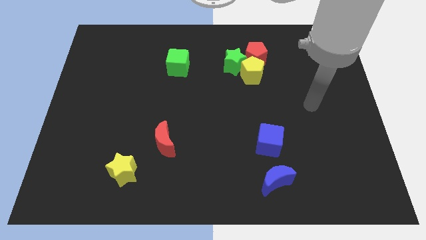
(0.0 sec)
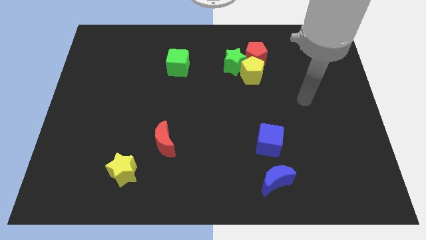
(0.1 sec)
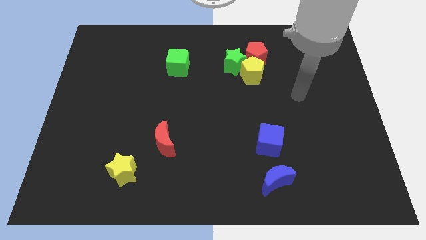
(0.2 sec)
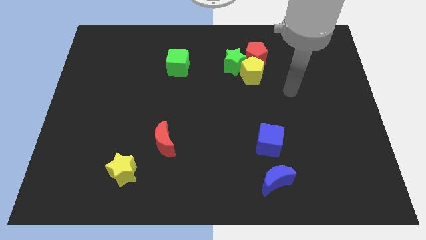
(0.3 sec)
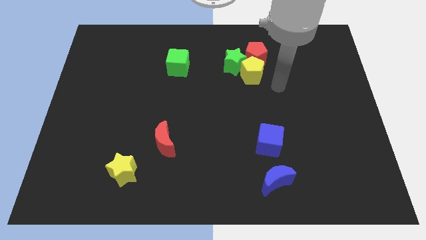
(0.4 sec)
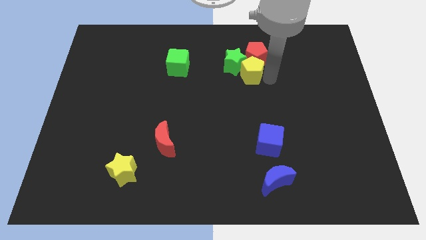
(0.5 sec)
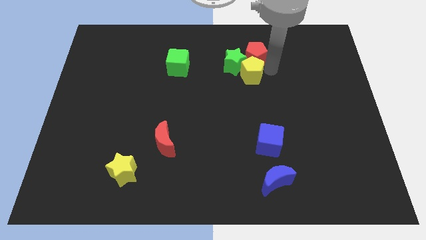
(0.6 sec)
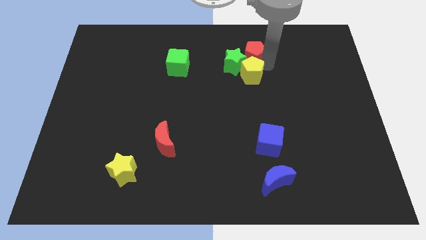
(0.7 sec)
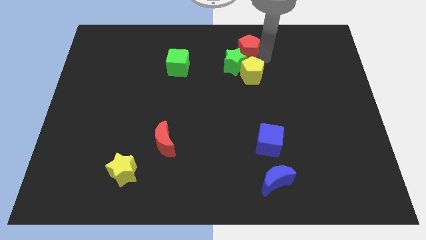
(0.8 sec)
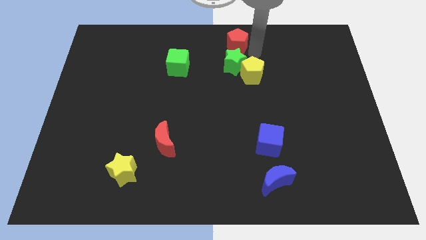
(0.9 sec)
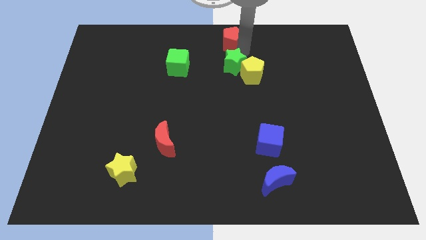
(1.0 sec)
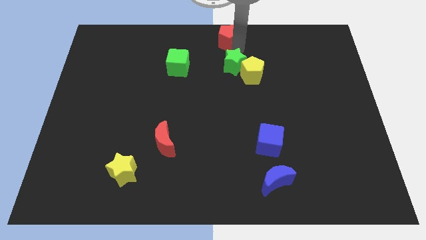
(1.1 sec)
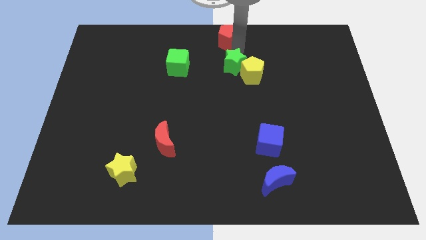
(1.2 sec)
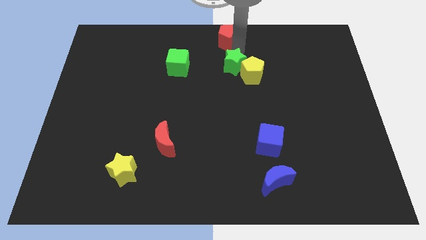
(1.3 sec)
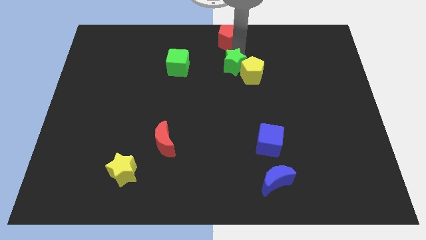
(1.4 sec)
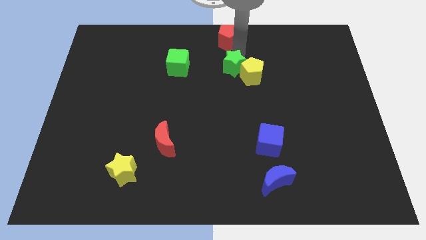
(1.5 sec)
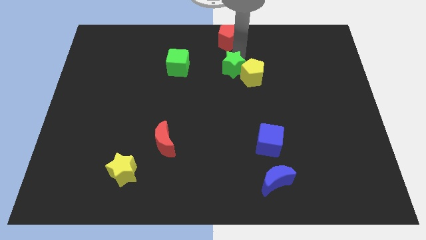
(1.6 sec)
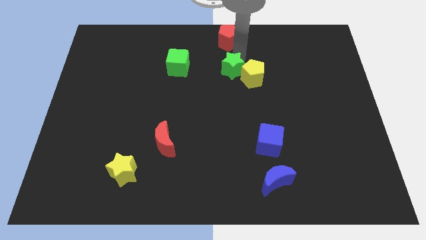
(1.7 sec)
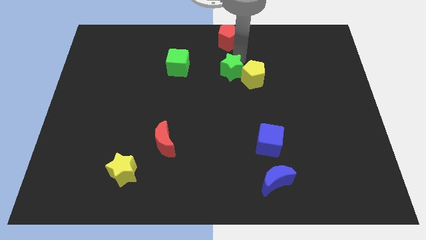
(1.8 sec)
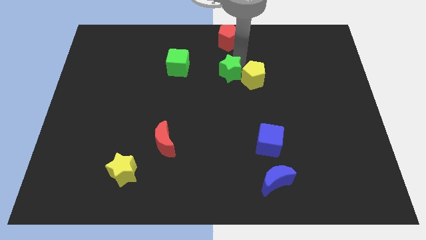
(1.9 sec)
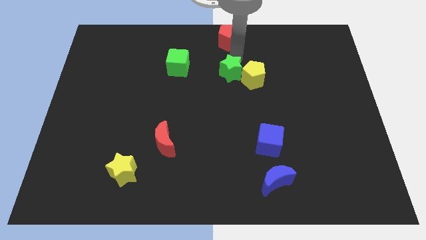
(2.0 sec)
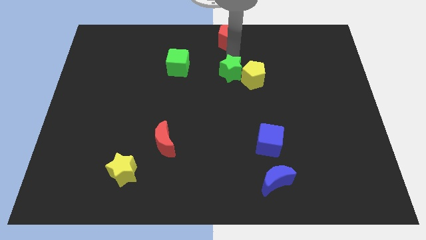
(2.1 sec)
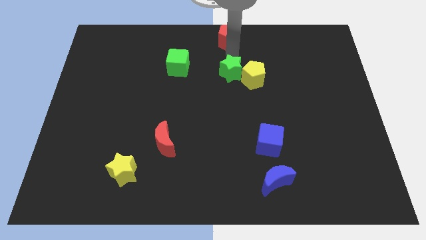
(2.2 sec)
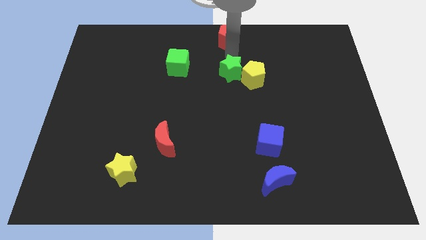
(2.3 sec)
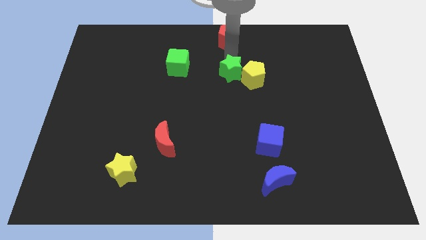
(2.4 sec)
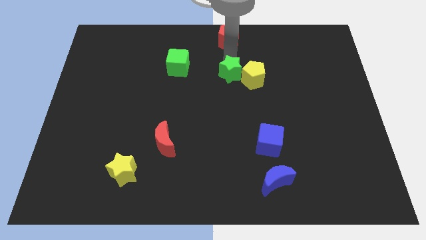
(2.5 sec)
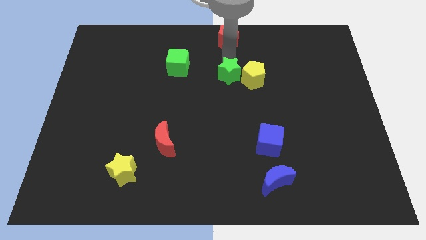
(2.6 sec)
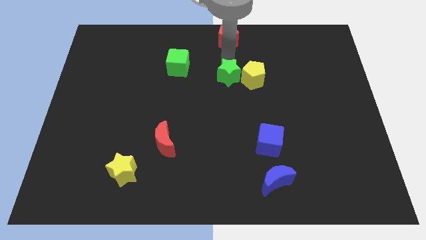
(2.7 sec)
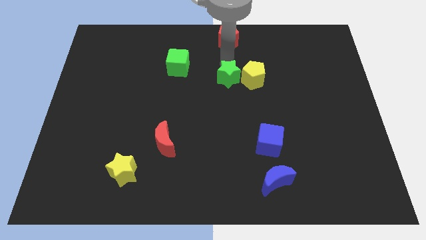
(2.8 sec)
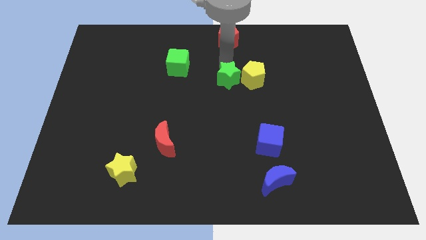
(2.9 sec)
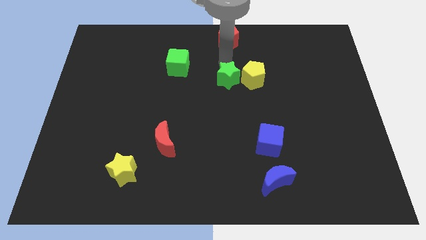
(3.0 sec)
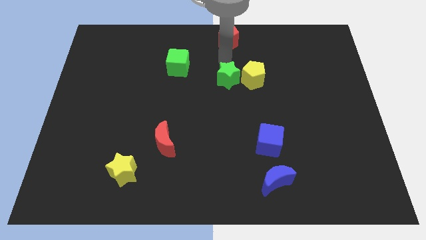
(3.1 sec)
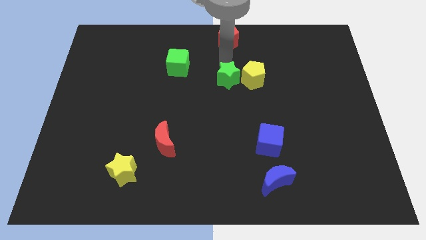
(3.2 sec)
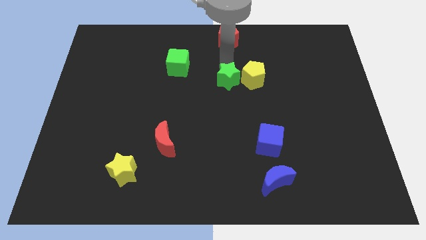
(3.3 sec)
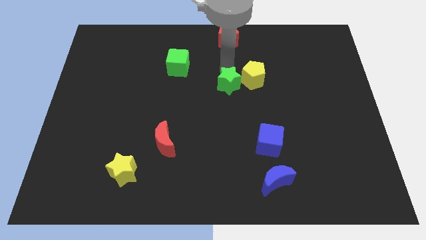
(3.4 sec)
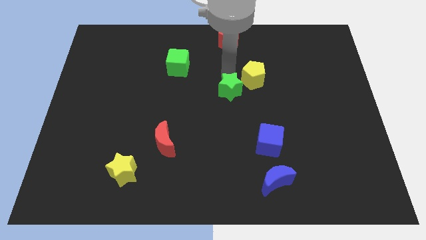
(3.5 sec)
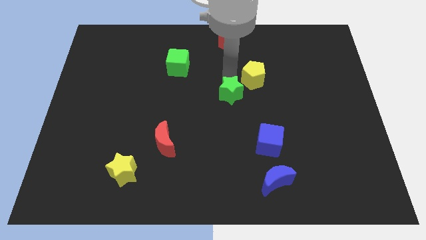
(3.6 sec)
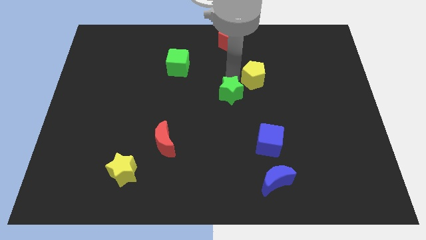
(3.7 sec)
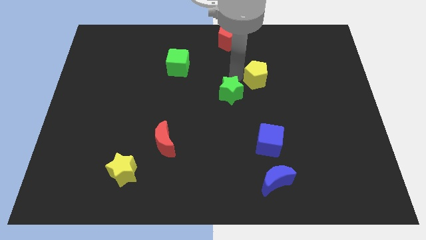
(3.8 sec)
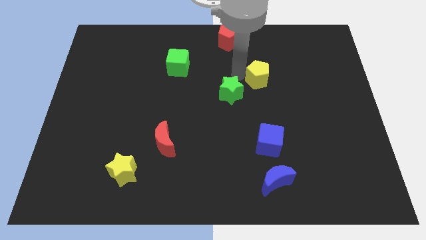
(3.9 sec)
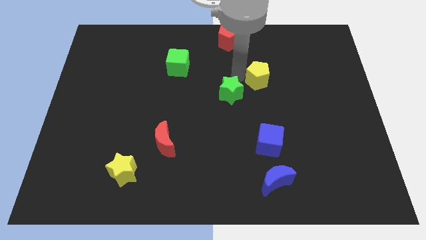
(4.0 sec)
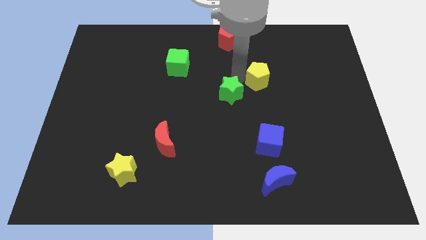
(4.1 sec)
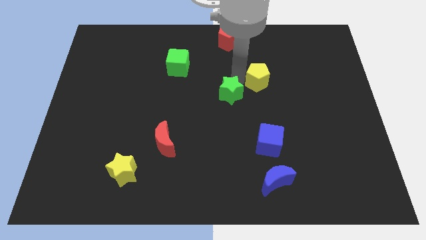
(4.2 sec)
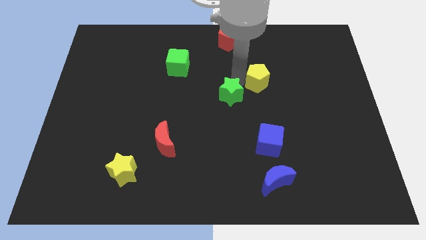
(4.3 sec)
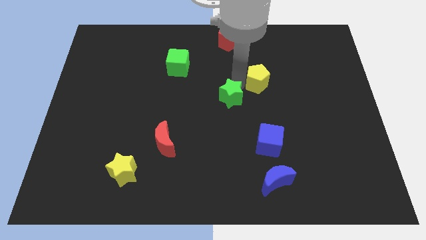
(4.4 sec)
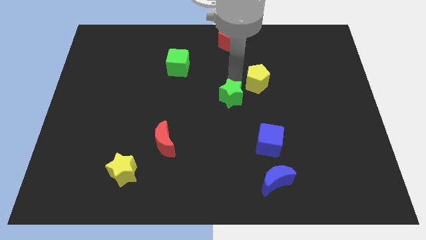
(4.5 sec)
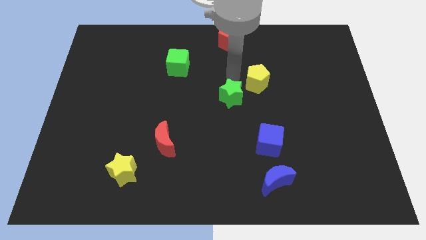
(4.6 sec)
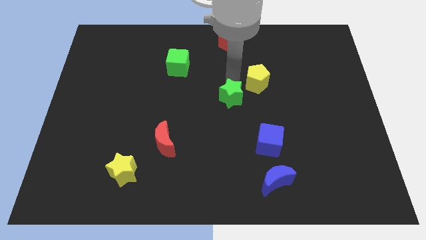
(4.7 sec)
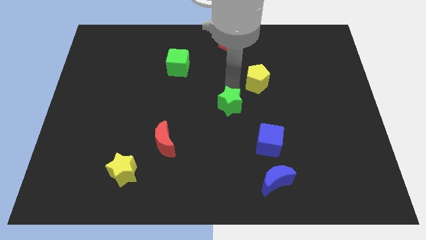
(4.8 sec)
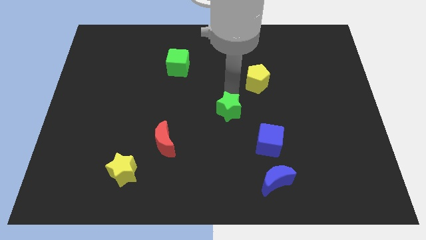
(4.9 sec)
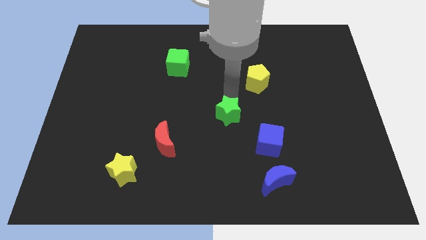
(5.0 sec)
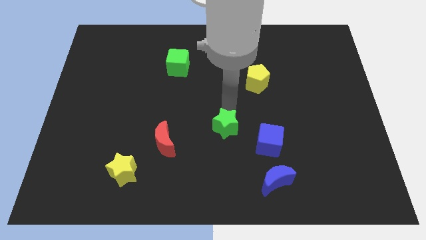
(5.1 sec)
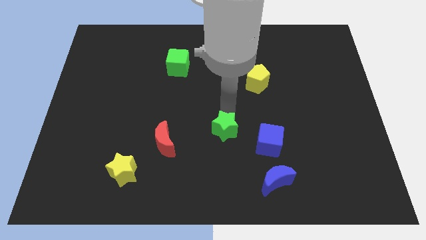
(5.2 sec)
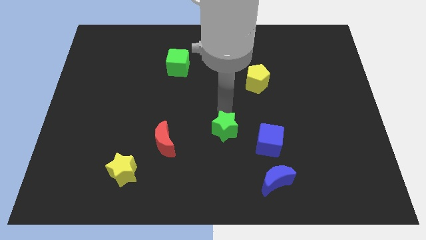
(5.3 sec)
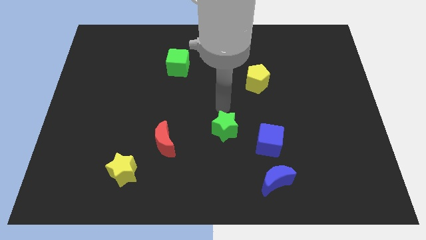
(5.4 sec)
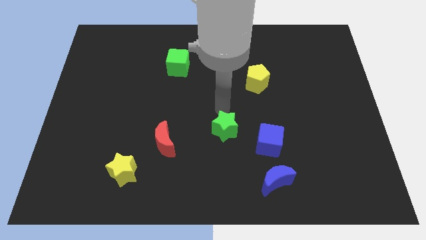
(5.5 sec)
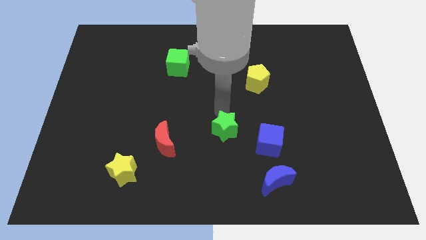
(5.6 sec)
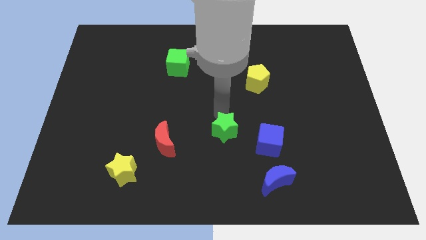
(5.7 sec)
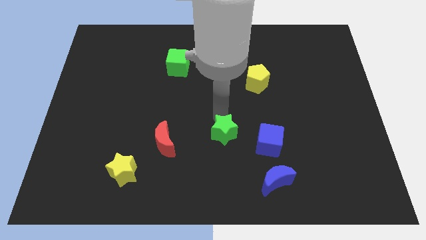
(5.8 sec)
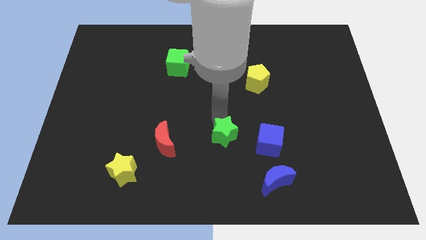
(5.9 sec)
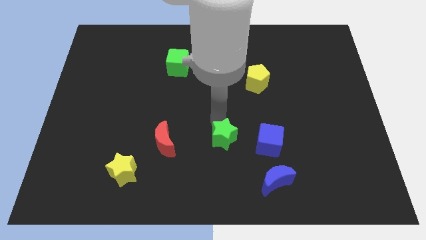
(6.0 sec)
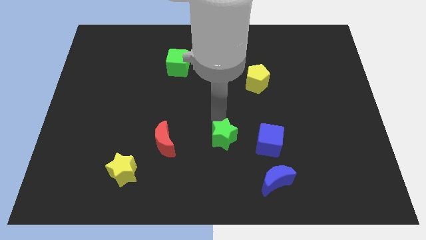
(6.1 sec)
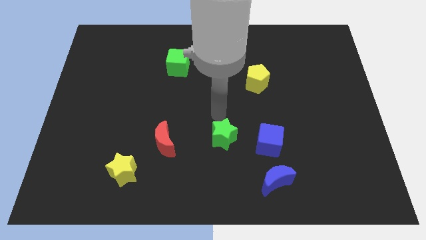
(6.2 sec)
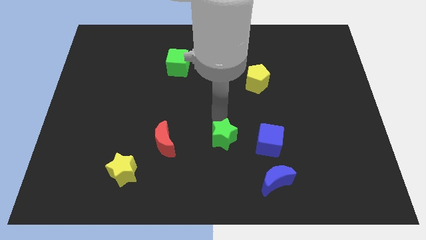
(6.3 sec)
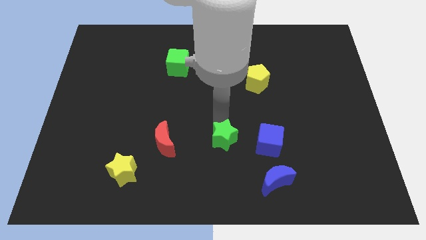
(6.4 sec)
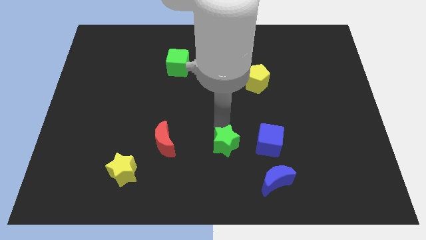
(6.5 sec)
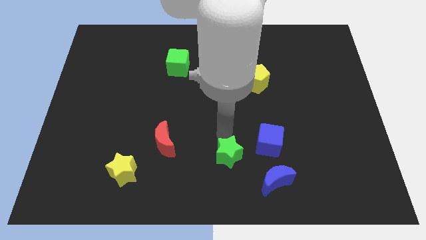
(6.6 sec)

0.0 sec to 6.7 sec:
move the green star to the bottom side

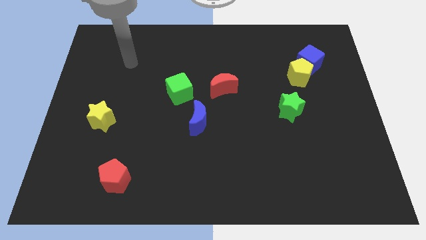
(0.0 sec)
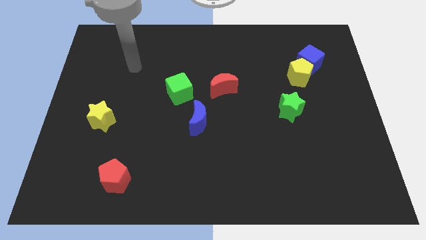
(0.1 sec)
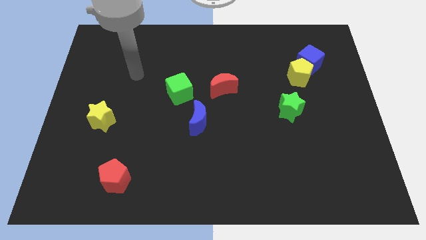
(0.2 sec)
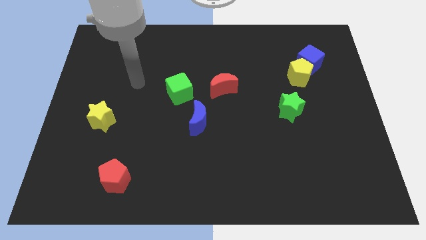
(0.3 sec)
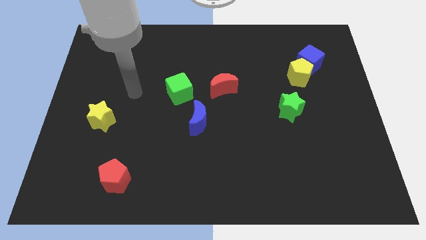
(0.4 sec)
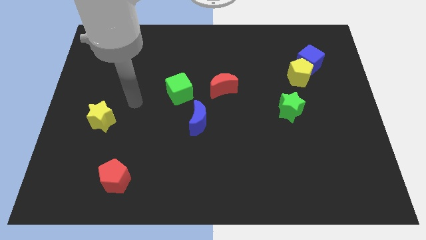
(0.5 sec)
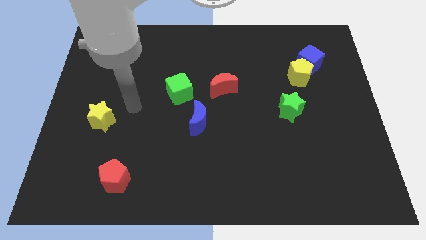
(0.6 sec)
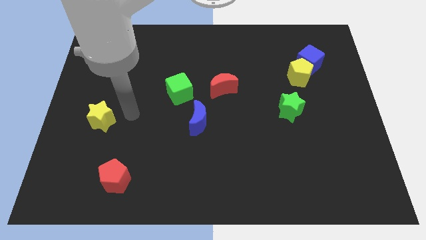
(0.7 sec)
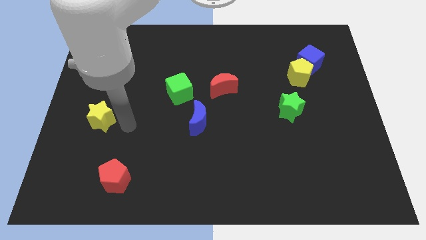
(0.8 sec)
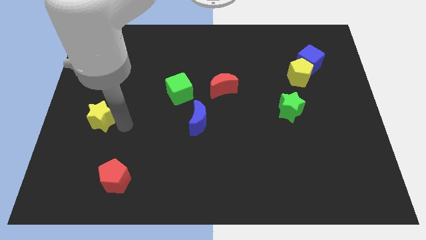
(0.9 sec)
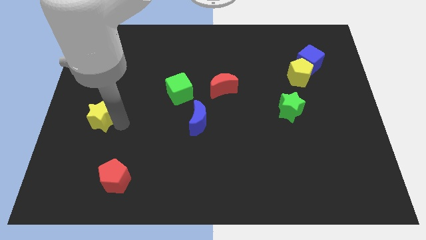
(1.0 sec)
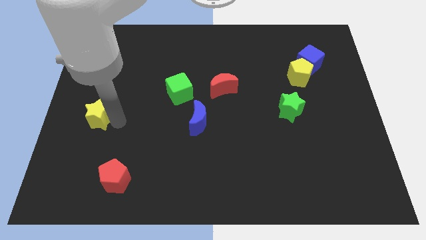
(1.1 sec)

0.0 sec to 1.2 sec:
put the yellow star to the left side
